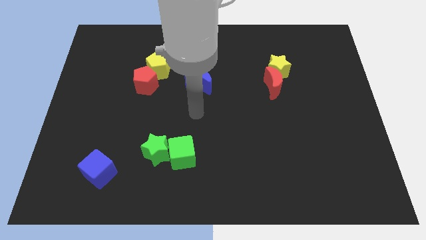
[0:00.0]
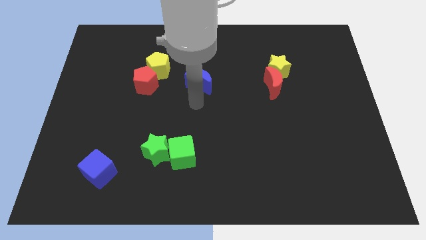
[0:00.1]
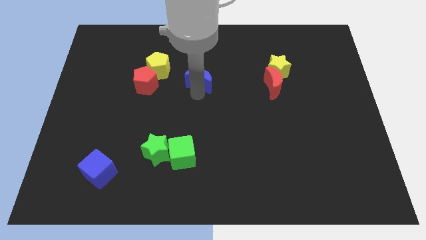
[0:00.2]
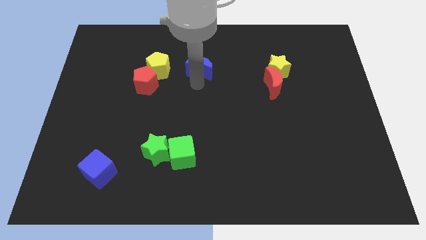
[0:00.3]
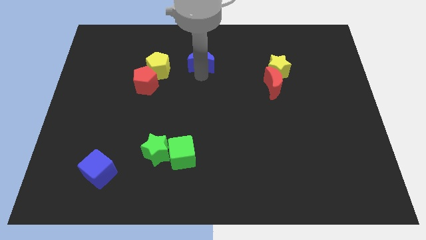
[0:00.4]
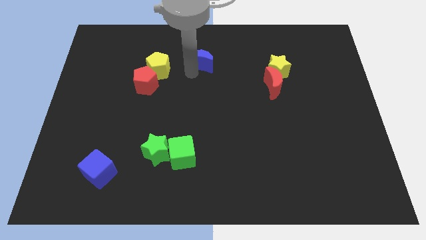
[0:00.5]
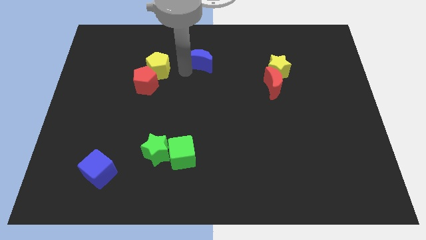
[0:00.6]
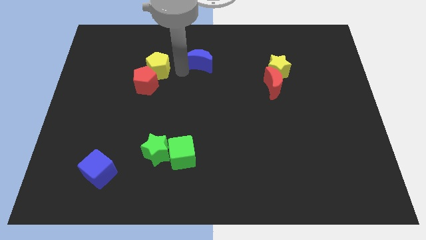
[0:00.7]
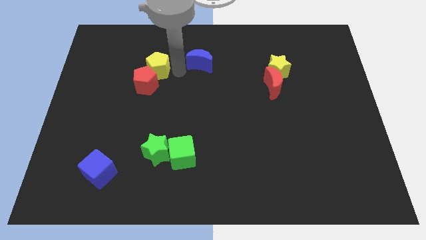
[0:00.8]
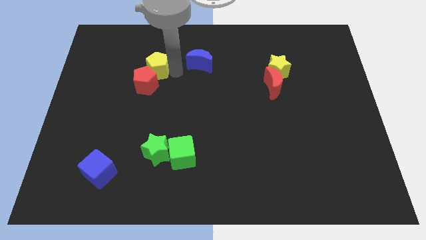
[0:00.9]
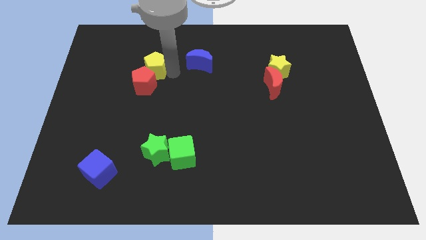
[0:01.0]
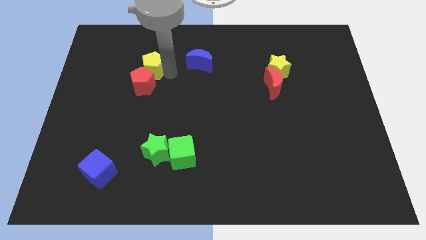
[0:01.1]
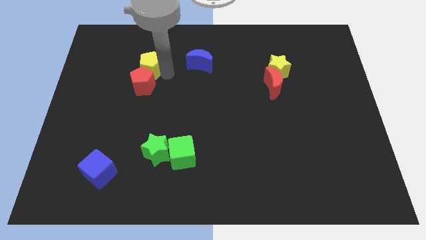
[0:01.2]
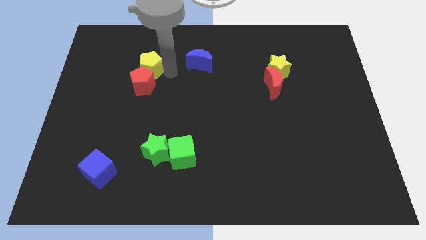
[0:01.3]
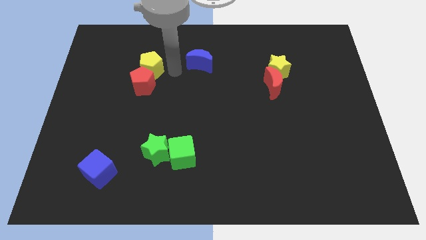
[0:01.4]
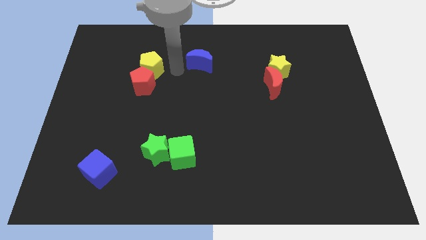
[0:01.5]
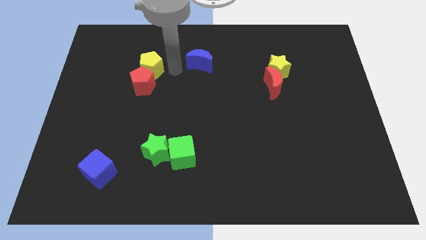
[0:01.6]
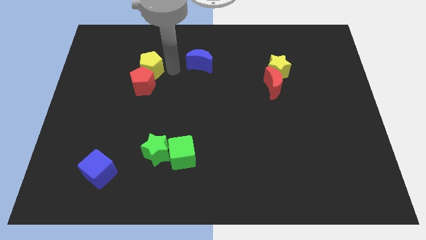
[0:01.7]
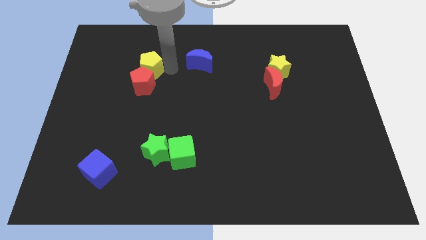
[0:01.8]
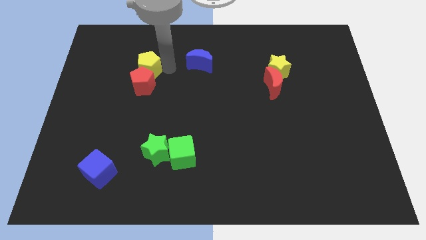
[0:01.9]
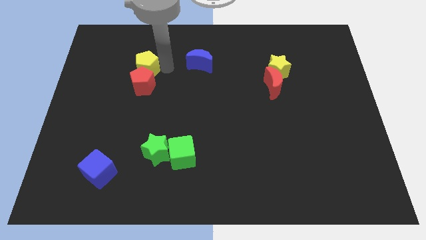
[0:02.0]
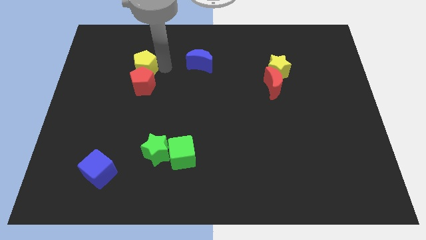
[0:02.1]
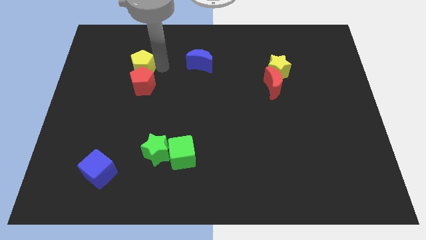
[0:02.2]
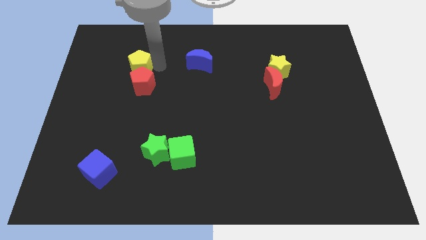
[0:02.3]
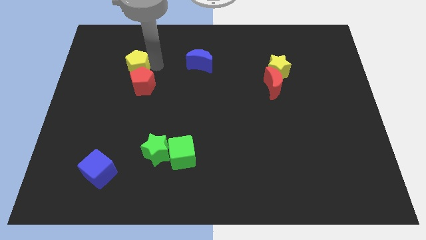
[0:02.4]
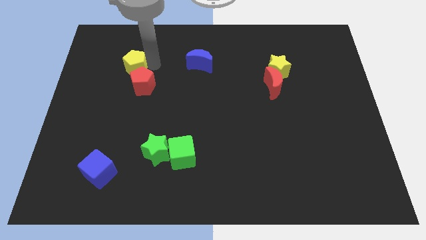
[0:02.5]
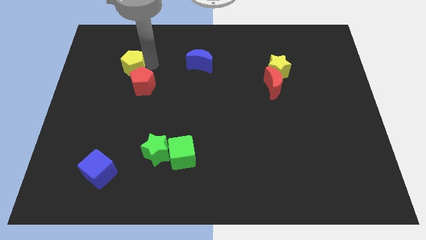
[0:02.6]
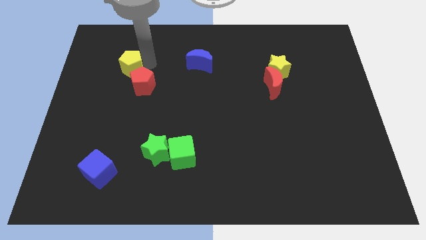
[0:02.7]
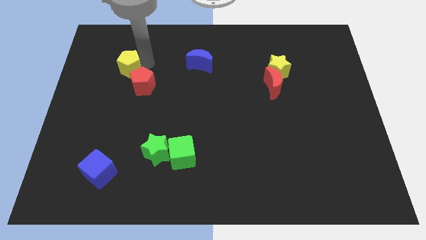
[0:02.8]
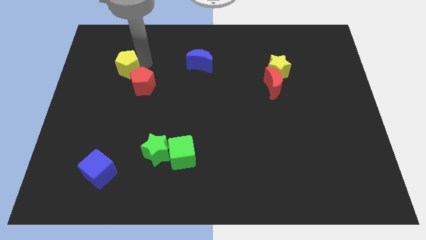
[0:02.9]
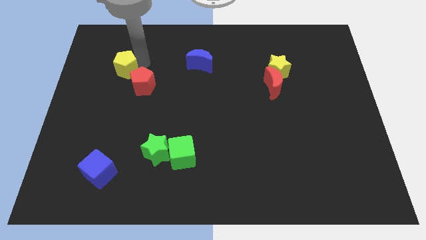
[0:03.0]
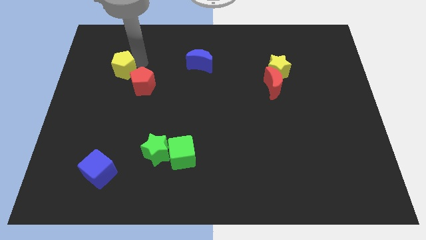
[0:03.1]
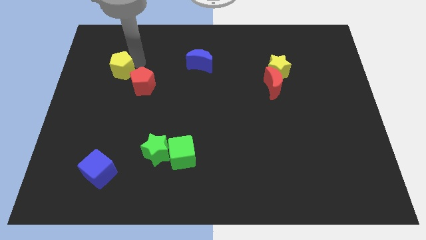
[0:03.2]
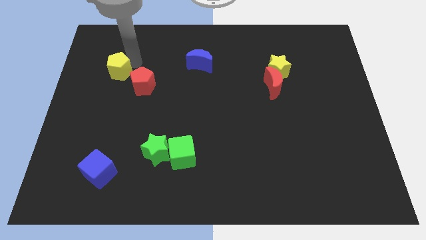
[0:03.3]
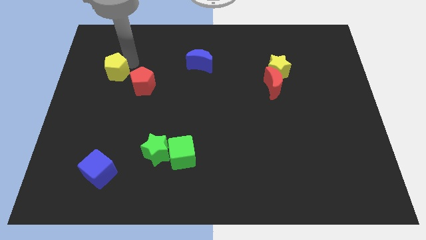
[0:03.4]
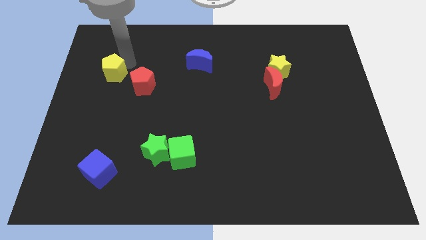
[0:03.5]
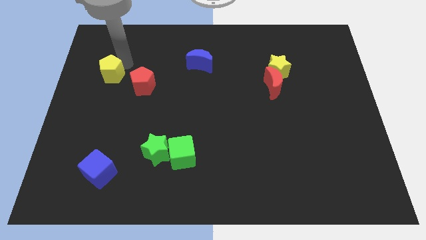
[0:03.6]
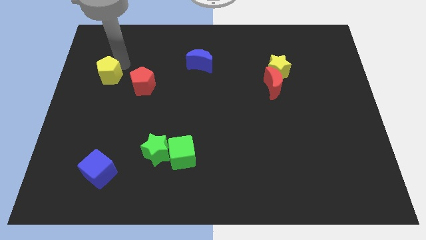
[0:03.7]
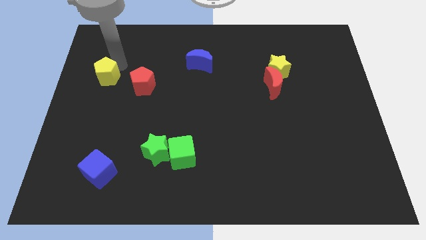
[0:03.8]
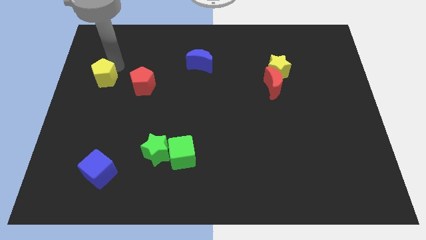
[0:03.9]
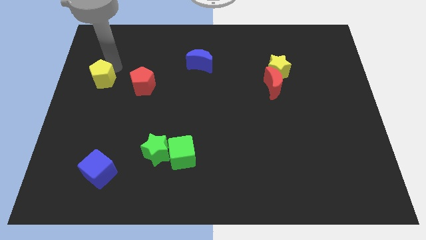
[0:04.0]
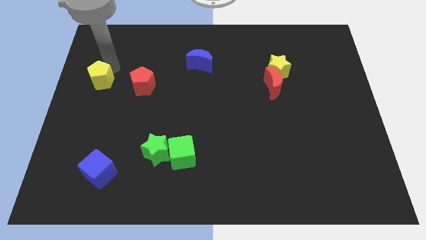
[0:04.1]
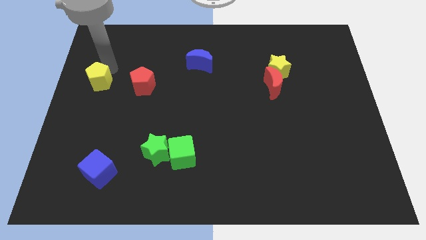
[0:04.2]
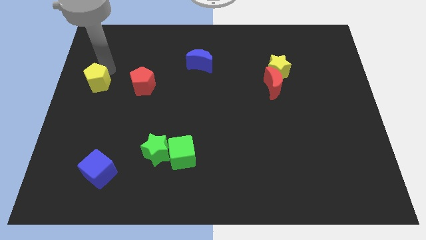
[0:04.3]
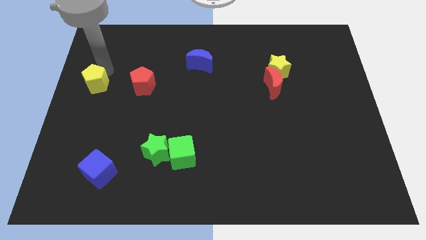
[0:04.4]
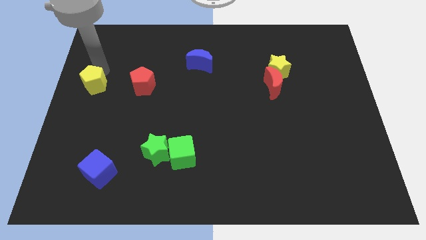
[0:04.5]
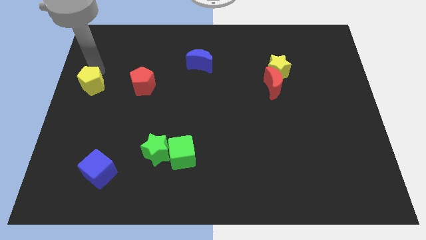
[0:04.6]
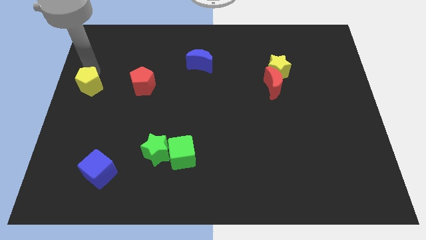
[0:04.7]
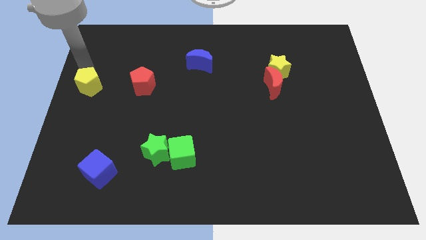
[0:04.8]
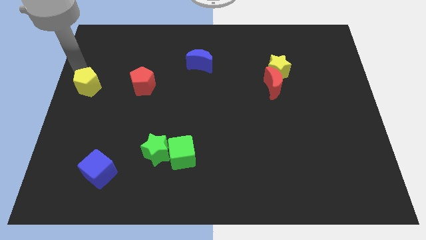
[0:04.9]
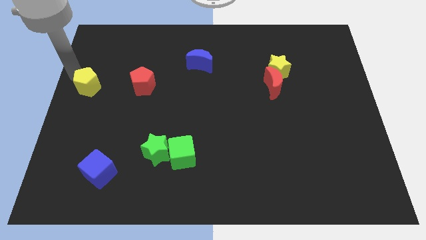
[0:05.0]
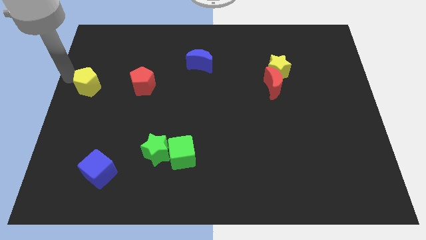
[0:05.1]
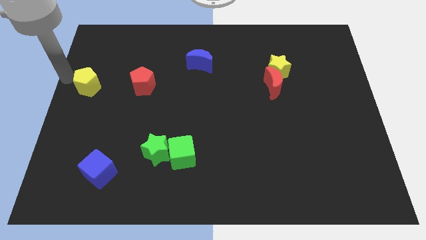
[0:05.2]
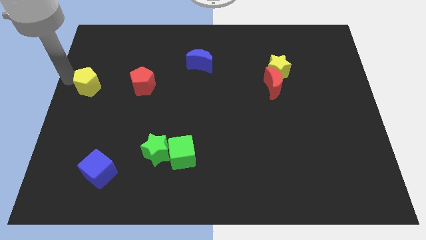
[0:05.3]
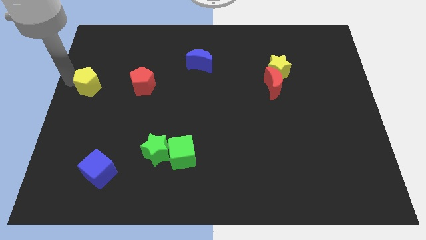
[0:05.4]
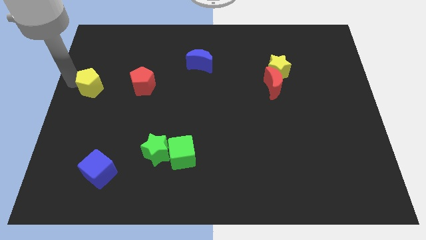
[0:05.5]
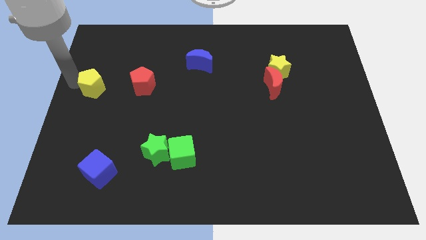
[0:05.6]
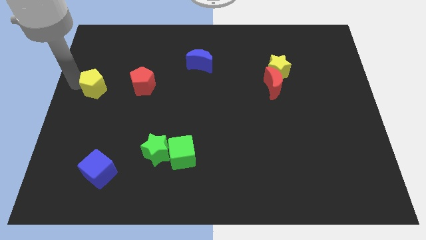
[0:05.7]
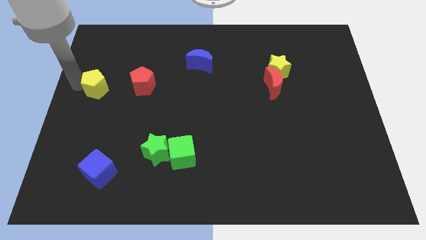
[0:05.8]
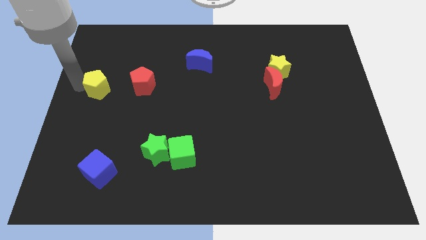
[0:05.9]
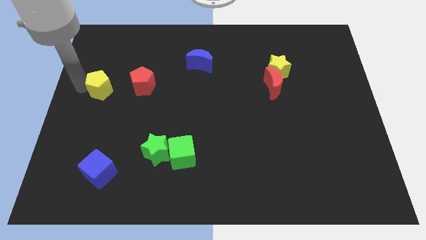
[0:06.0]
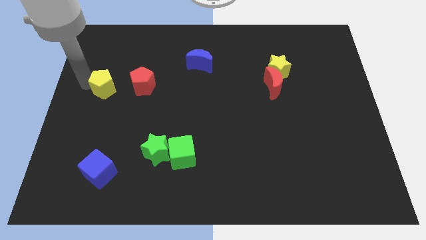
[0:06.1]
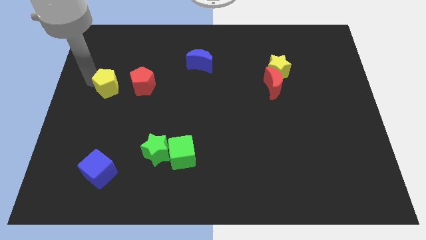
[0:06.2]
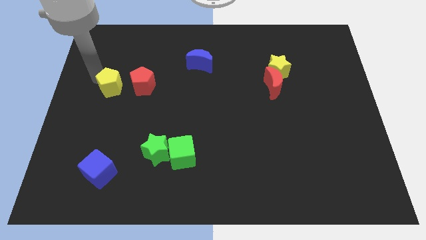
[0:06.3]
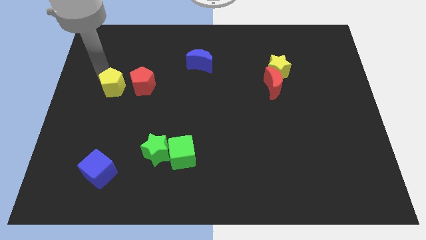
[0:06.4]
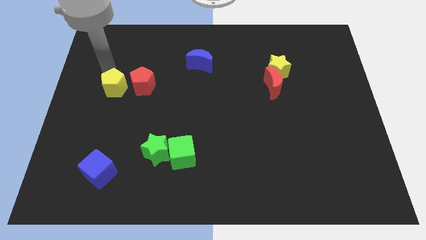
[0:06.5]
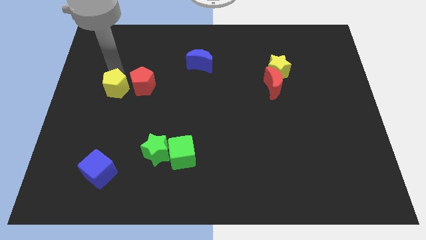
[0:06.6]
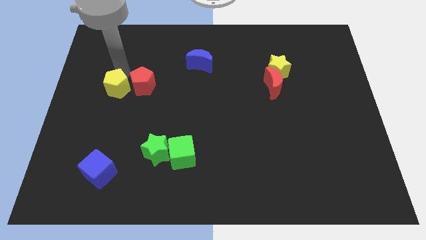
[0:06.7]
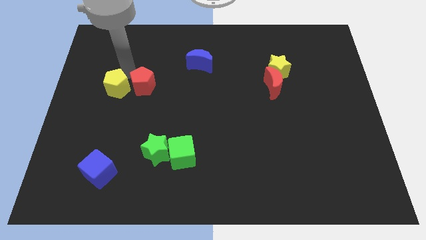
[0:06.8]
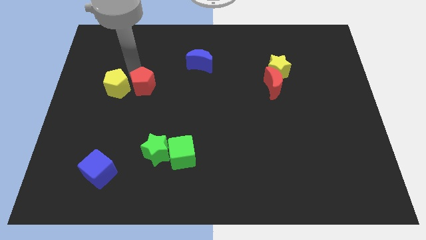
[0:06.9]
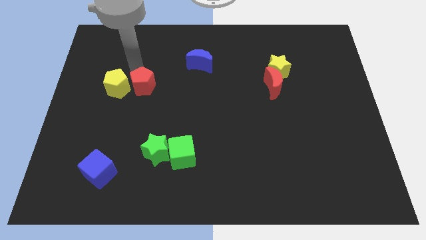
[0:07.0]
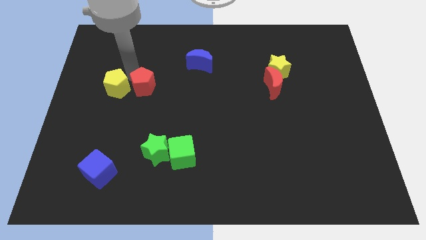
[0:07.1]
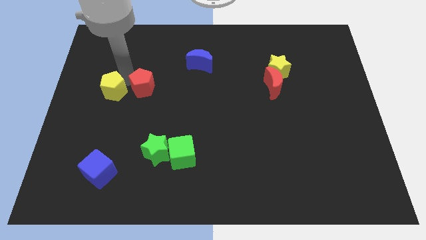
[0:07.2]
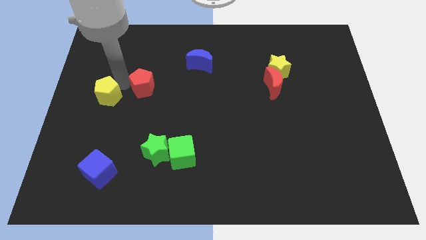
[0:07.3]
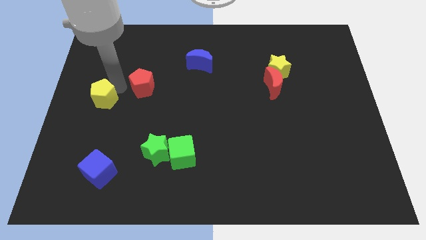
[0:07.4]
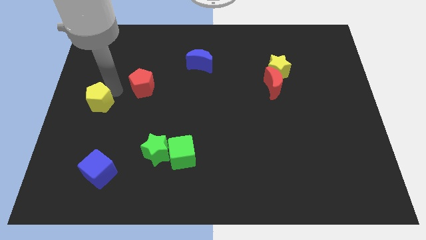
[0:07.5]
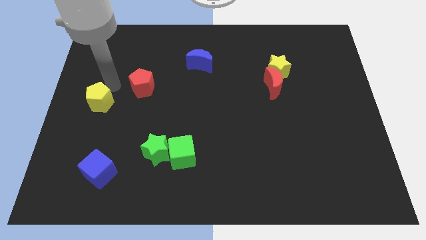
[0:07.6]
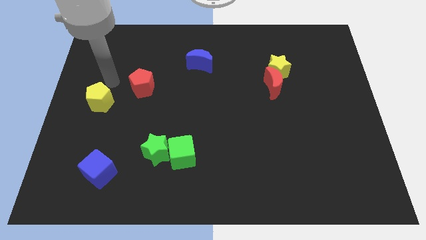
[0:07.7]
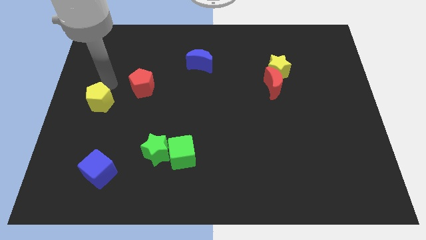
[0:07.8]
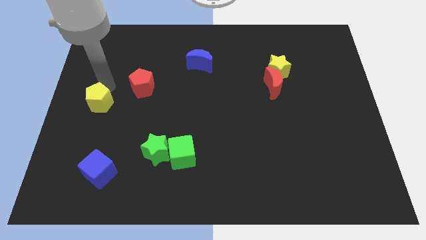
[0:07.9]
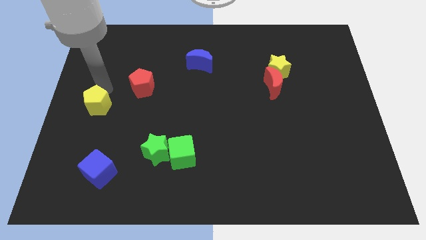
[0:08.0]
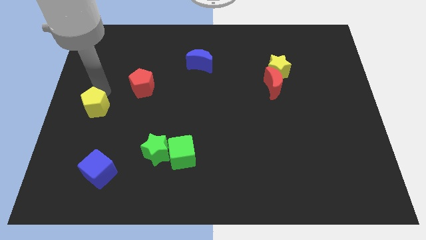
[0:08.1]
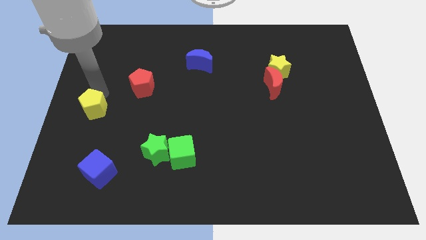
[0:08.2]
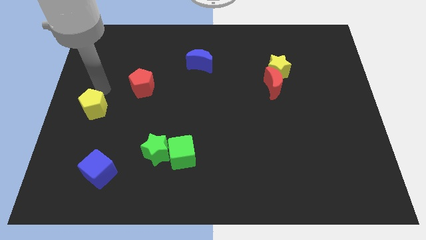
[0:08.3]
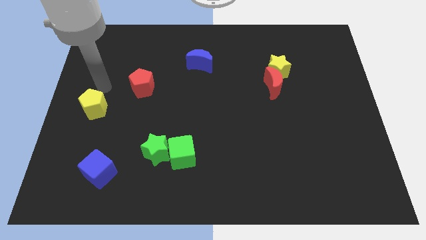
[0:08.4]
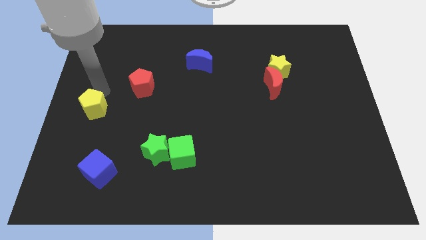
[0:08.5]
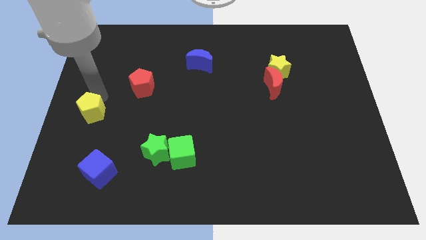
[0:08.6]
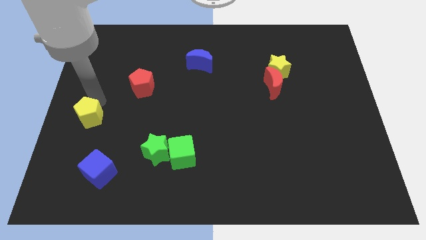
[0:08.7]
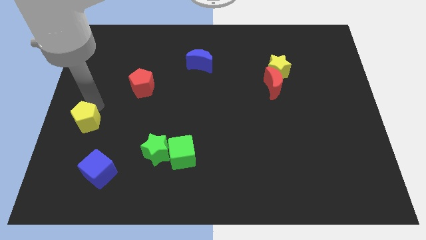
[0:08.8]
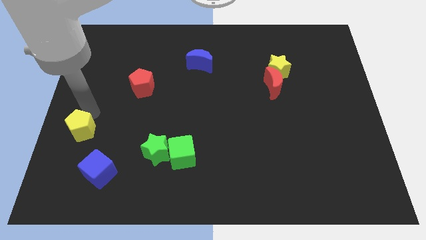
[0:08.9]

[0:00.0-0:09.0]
put the yellow pentagon to the top left of the blue cube
